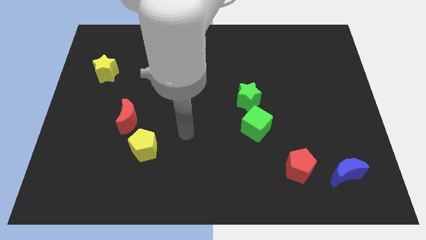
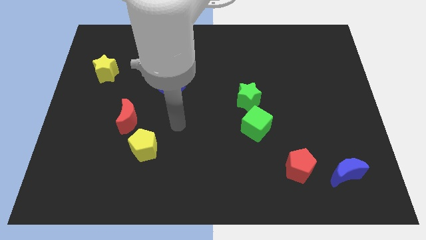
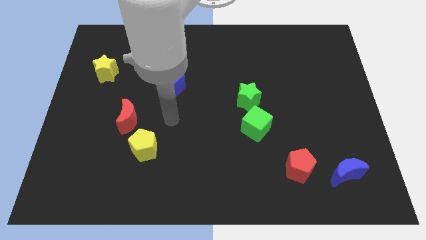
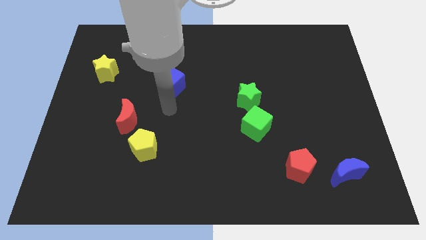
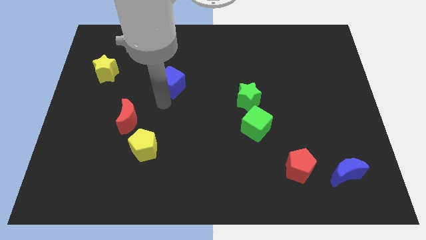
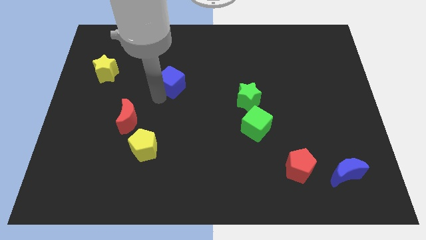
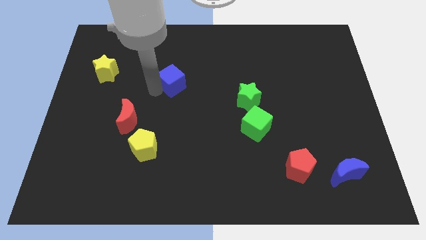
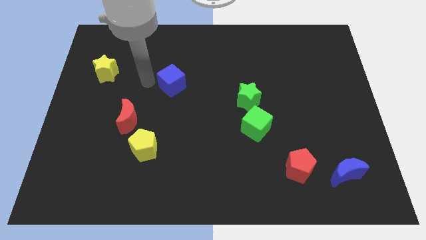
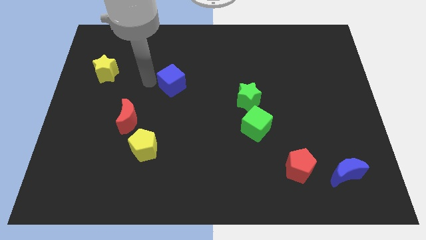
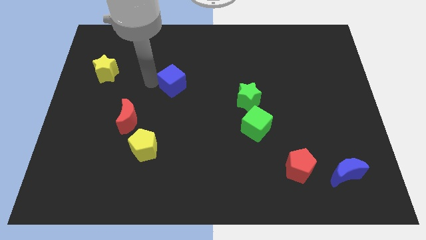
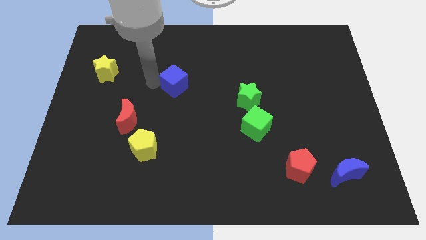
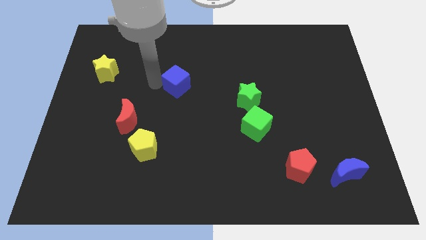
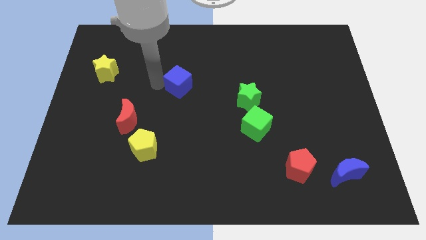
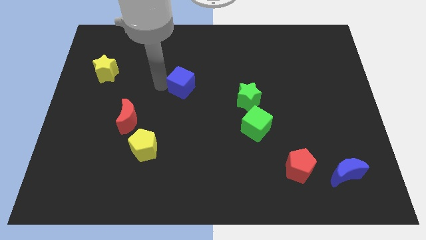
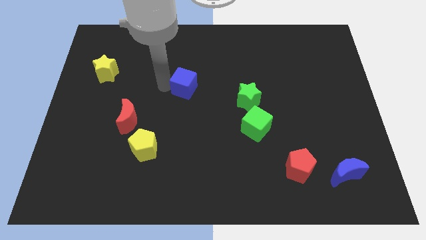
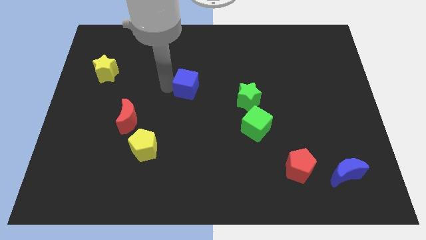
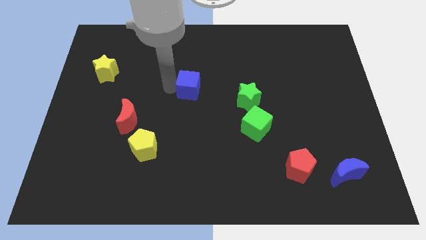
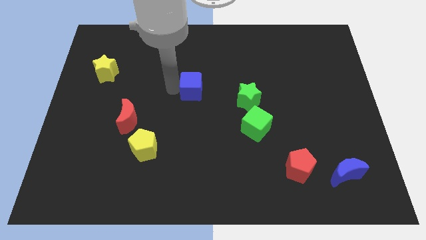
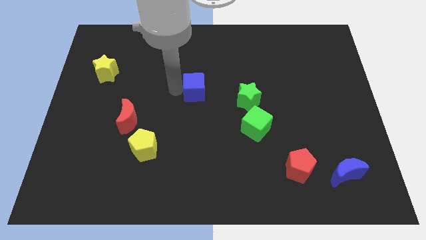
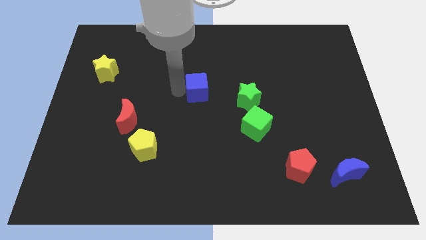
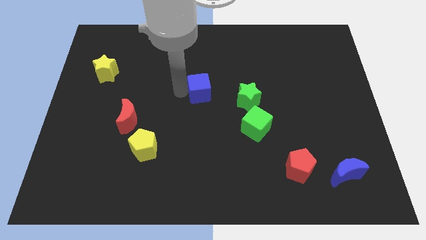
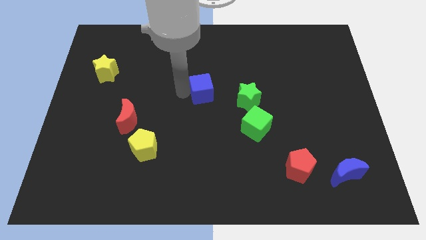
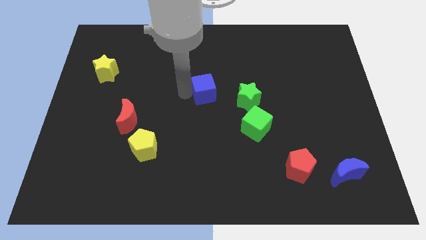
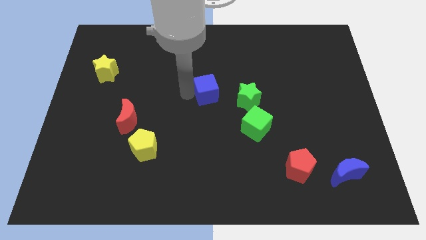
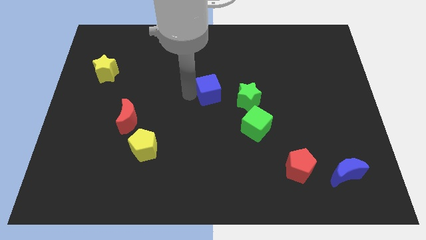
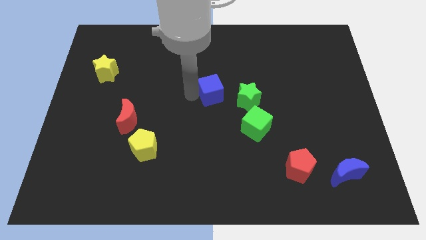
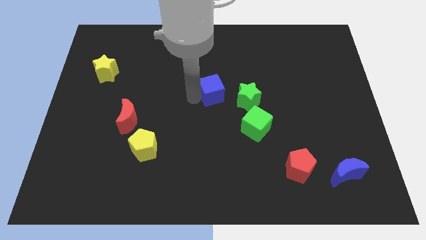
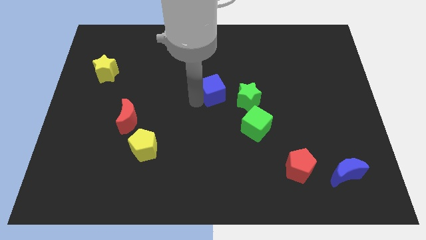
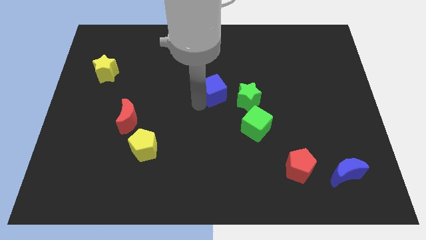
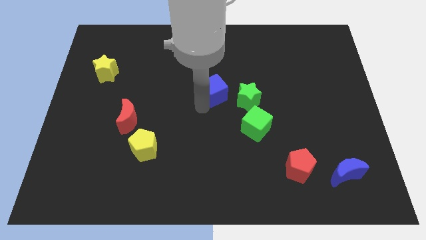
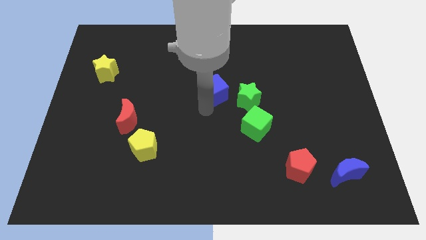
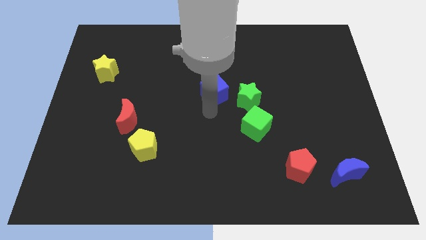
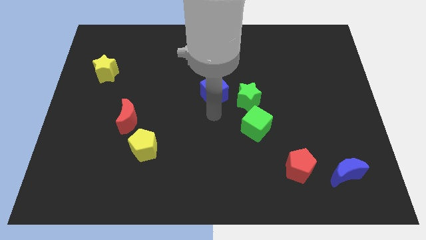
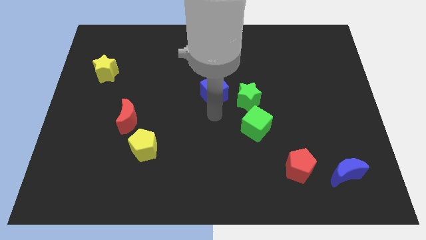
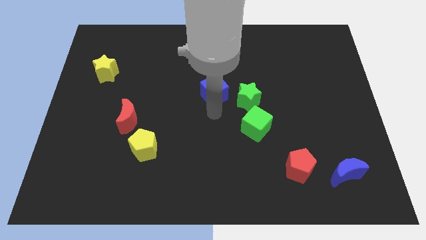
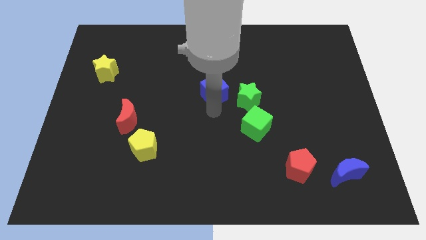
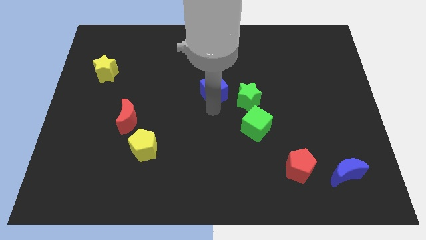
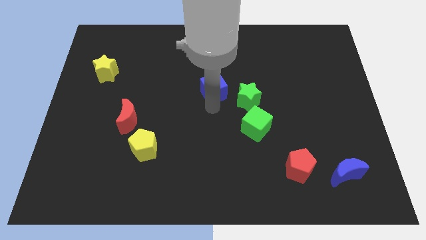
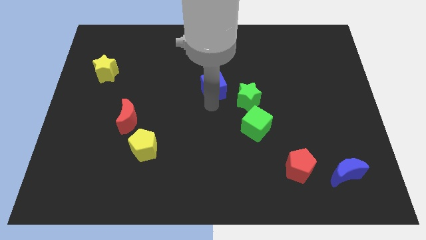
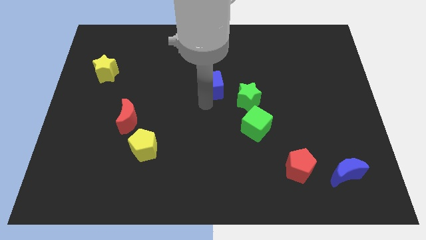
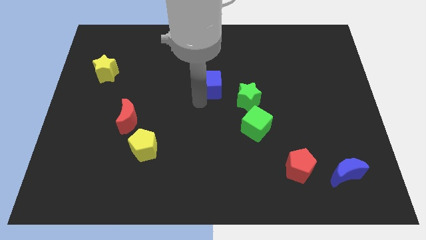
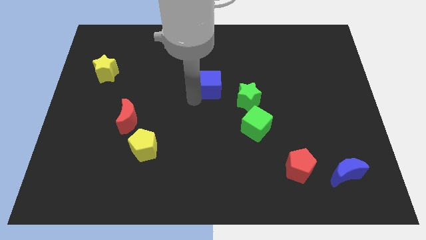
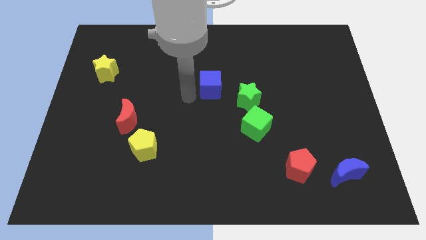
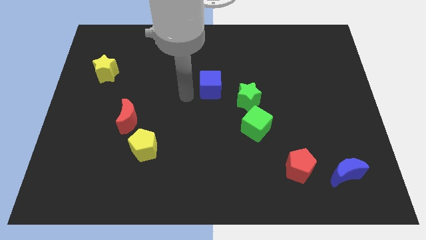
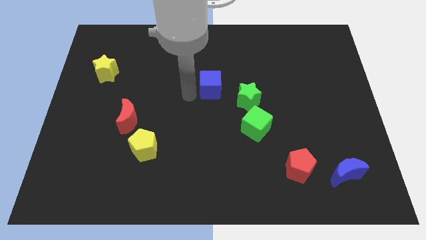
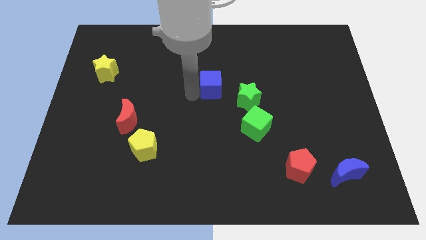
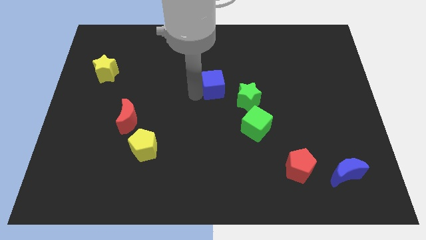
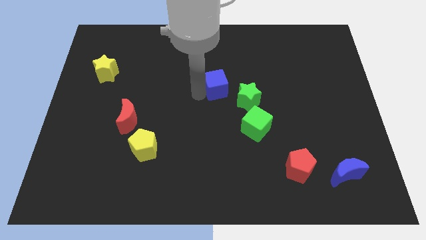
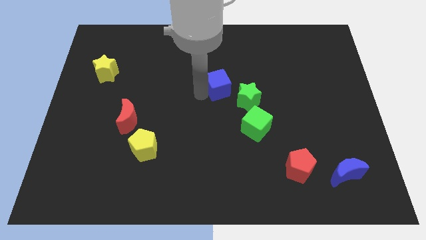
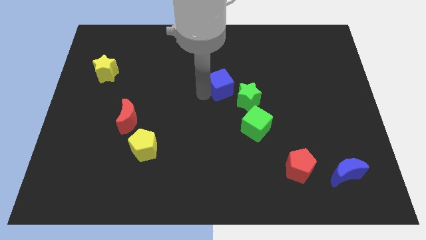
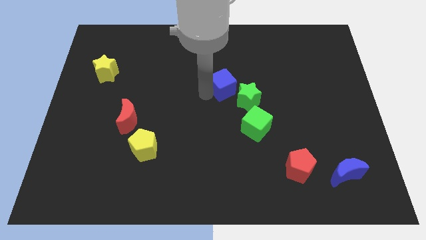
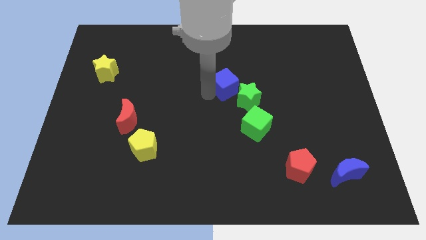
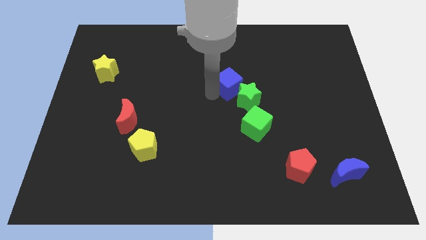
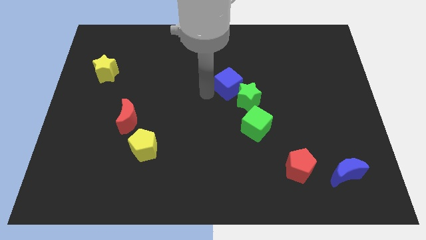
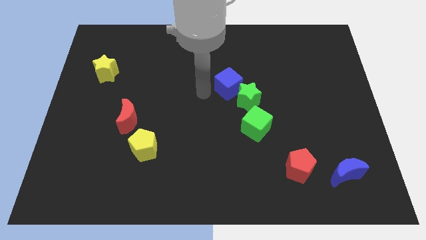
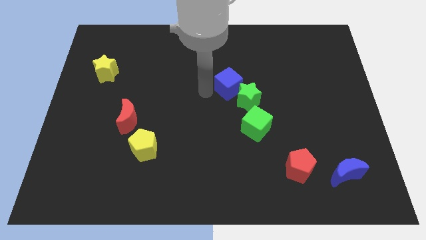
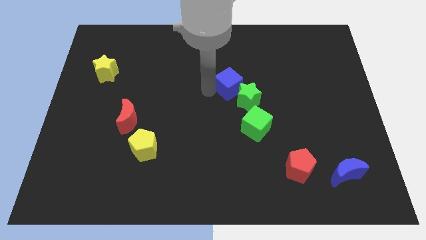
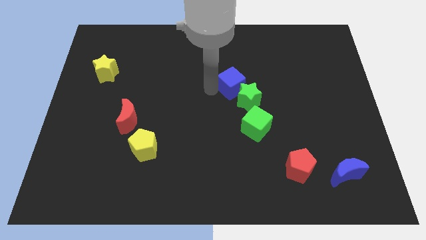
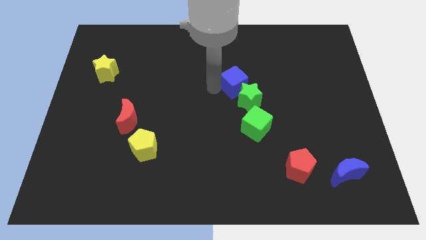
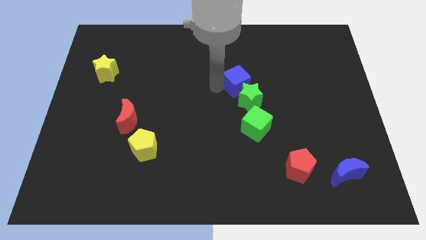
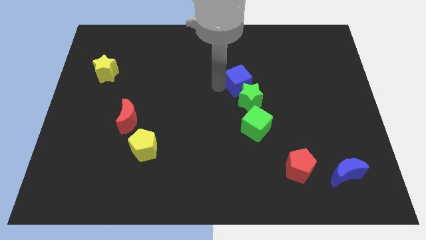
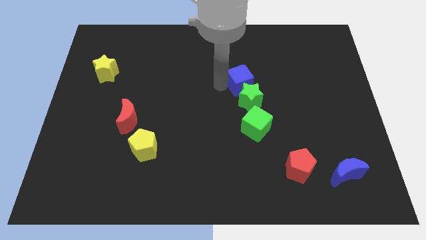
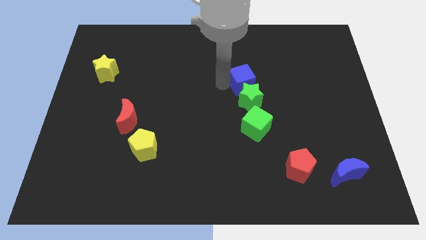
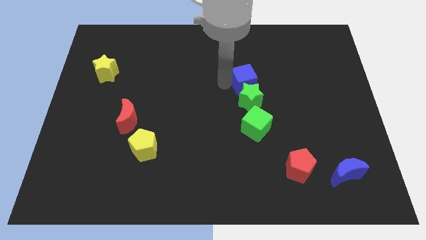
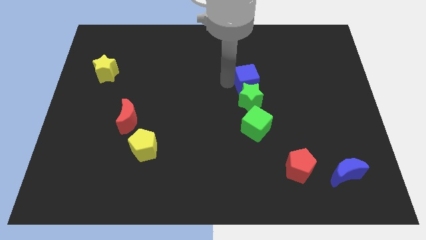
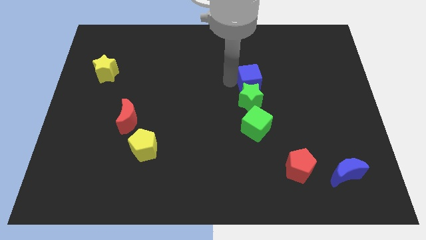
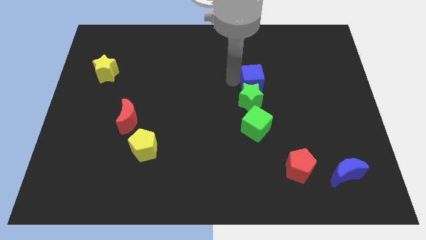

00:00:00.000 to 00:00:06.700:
push the blue cube to the right

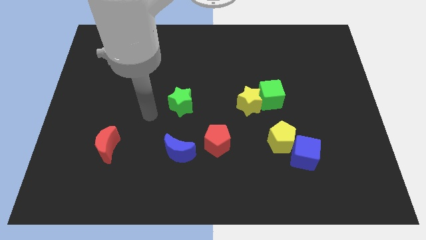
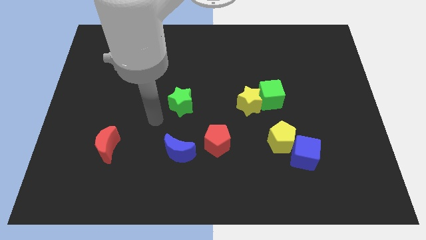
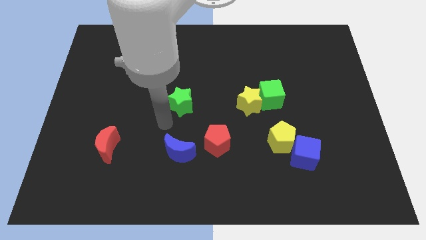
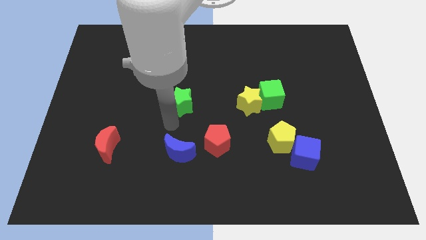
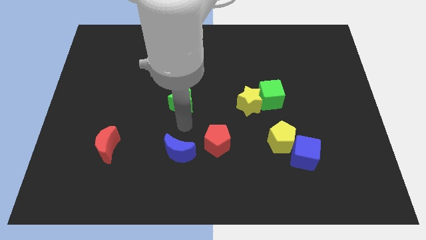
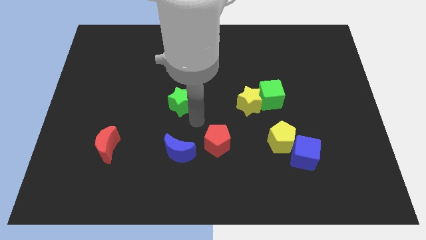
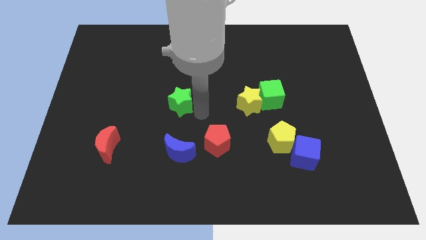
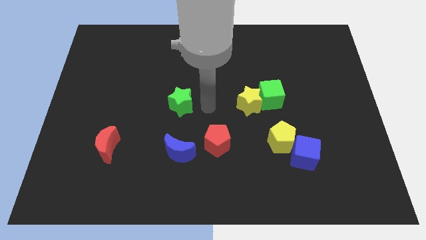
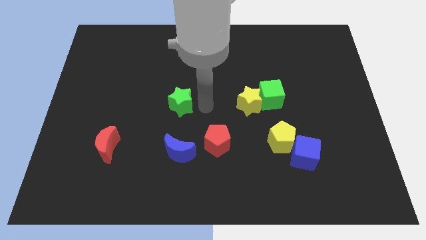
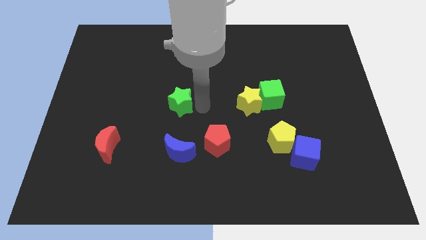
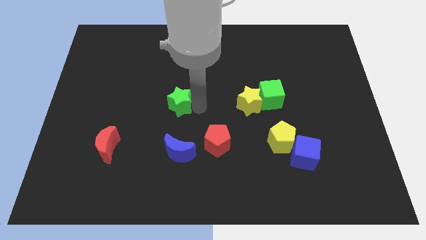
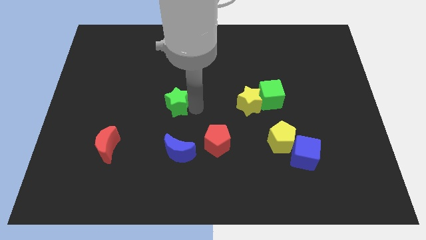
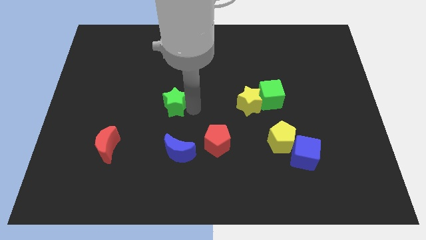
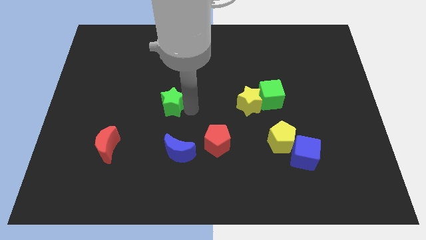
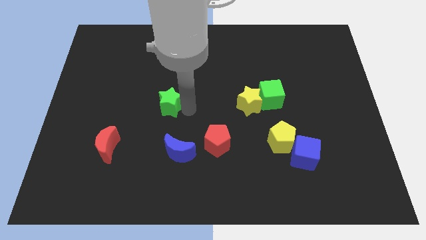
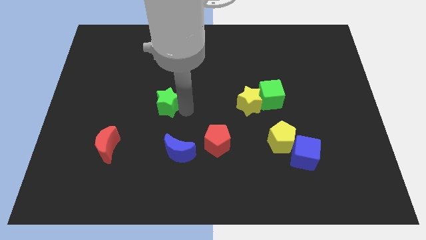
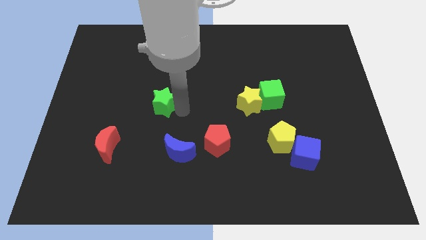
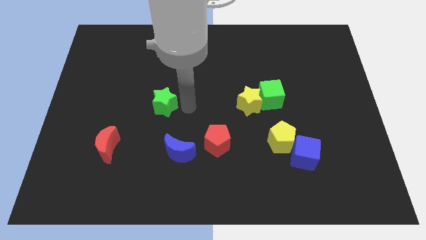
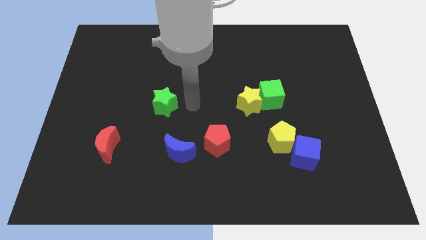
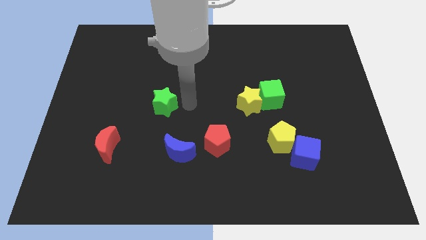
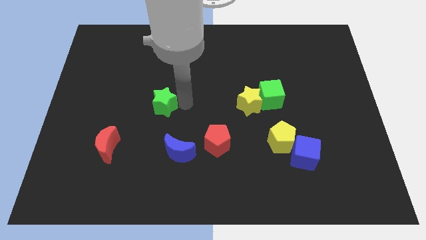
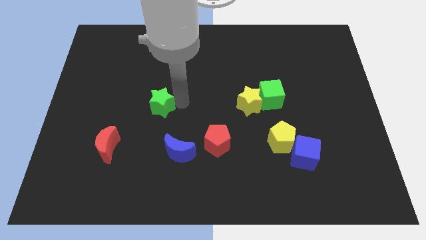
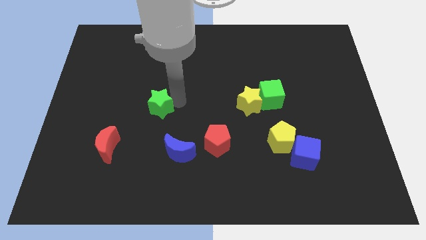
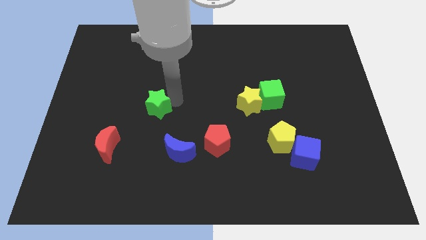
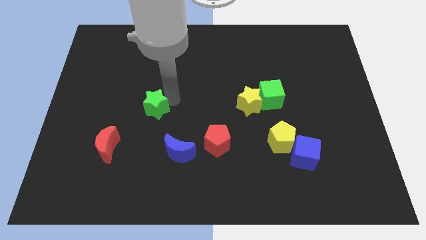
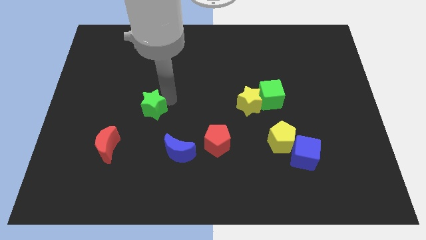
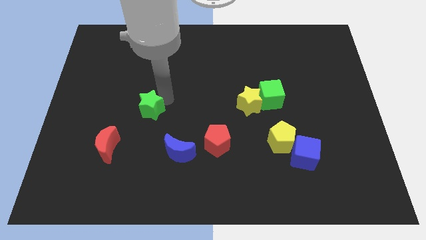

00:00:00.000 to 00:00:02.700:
push the green star a bit left
